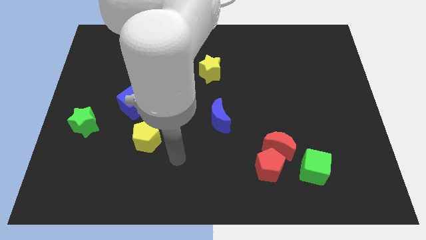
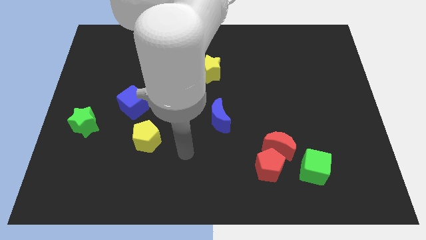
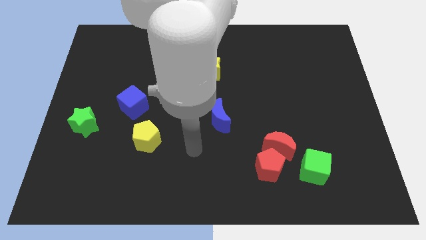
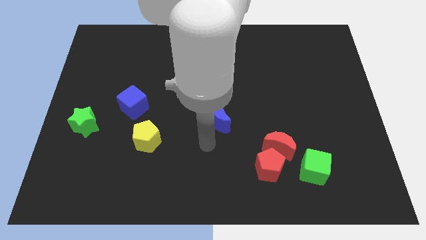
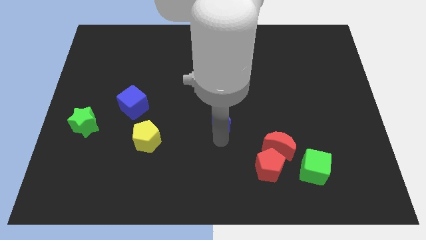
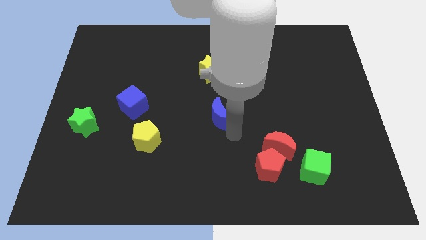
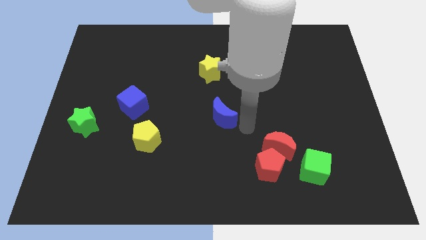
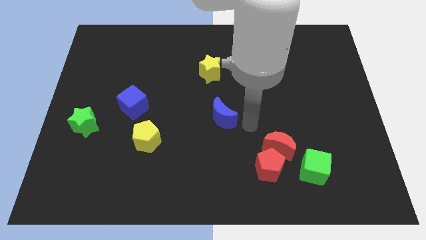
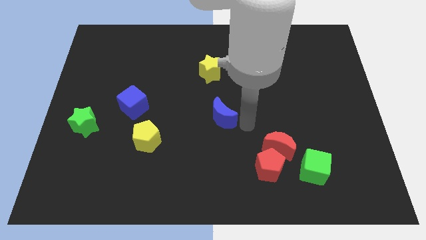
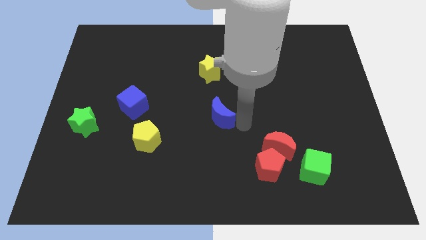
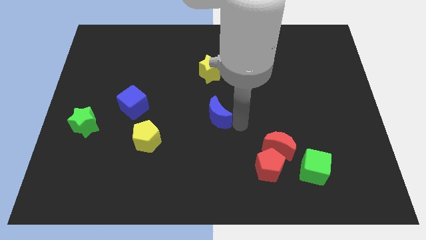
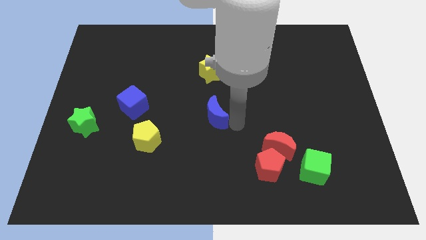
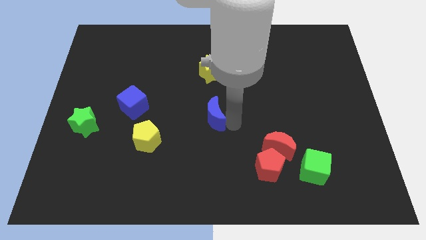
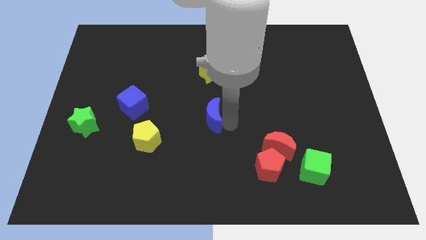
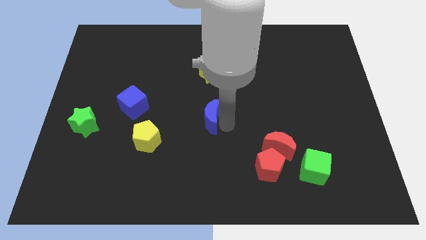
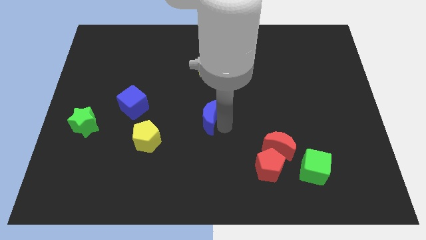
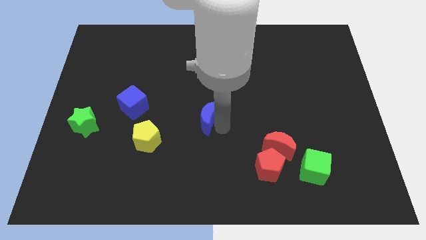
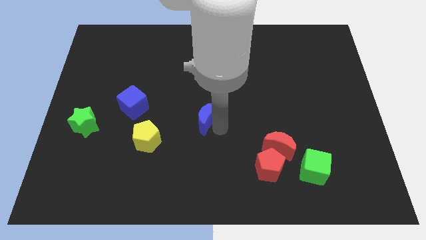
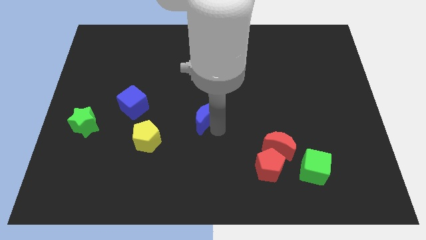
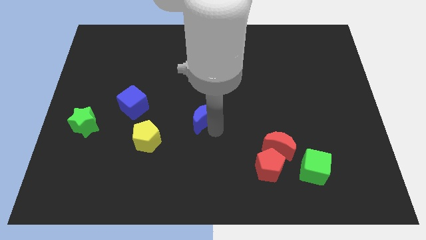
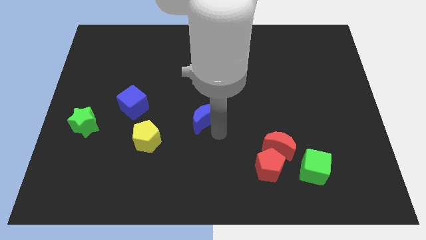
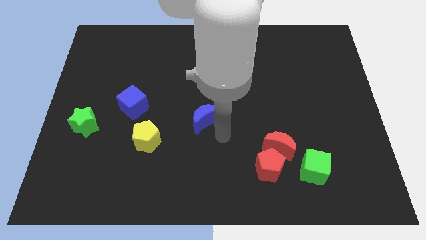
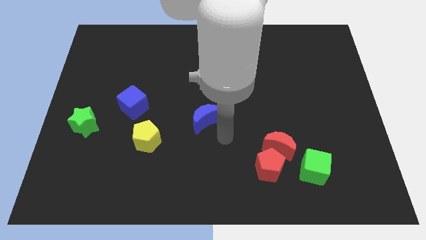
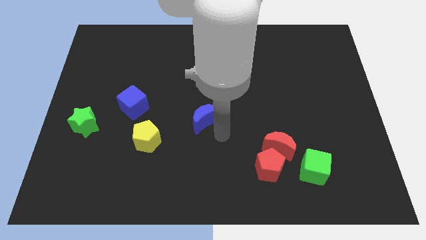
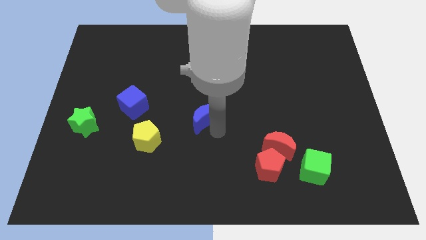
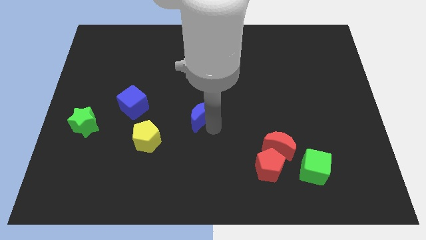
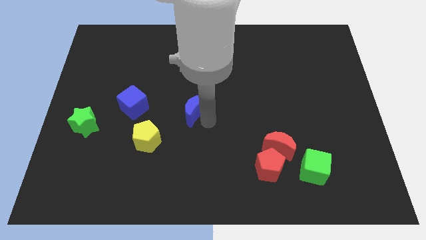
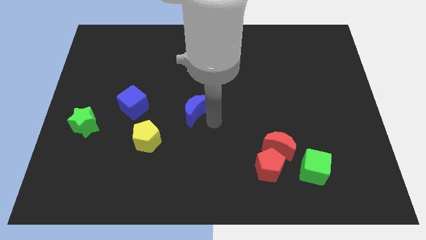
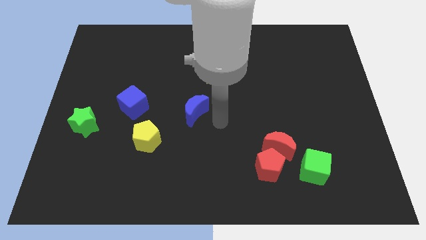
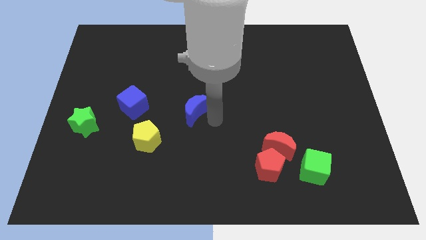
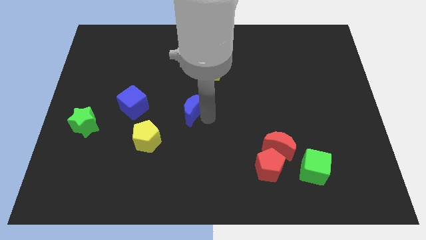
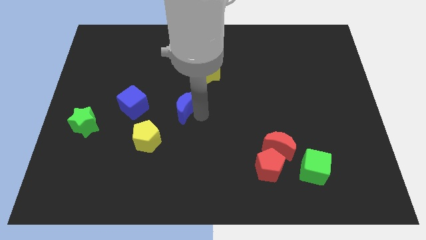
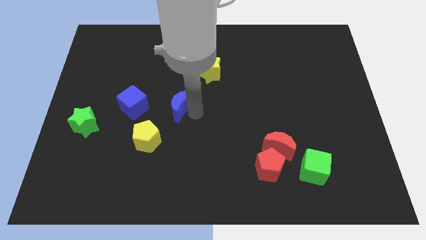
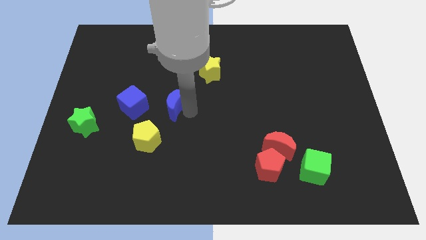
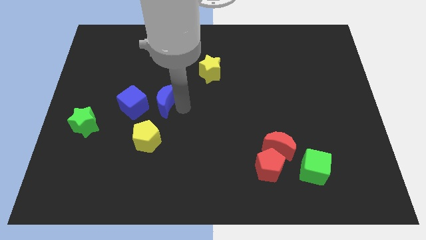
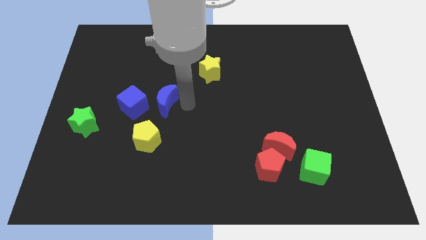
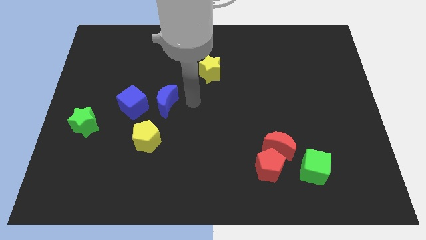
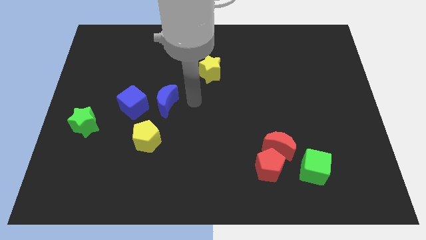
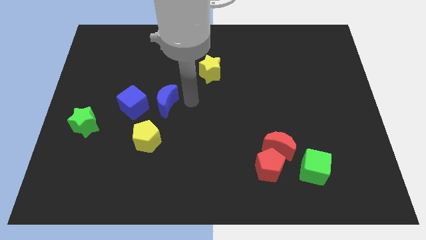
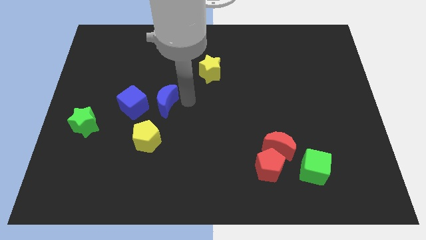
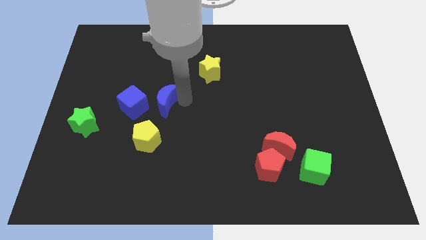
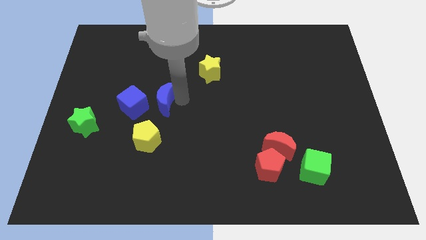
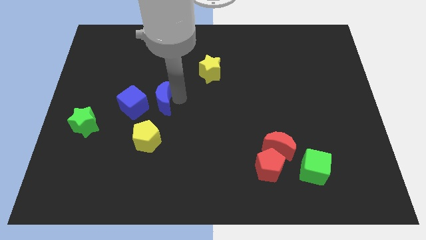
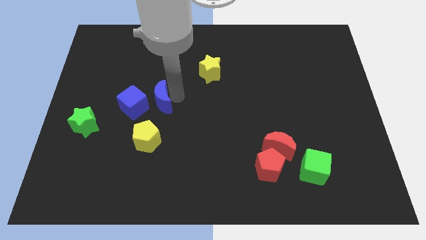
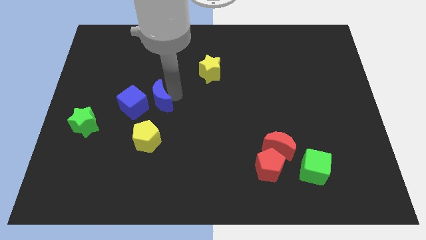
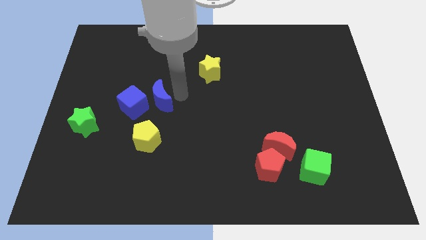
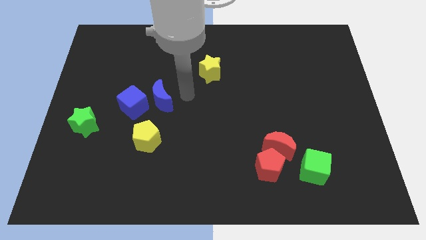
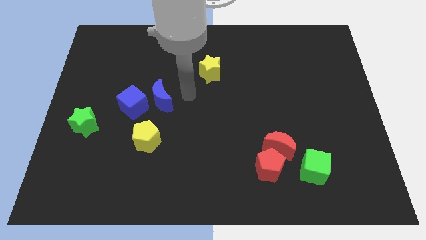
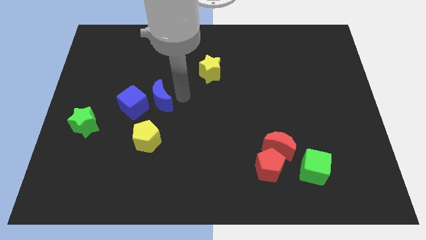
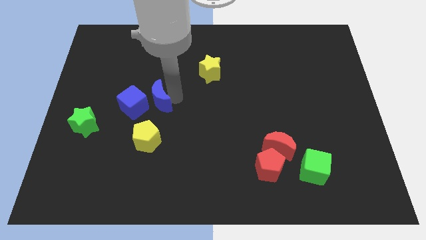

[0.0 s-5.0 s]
push the blue moon close to the blue cube

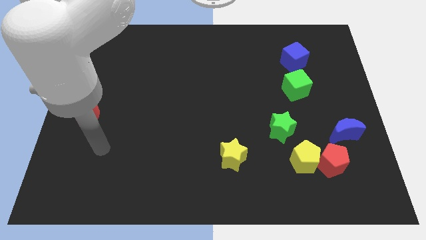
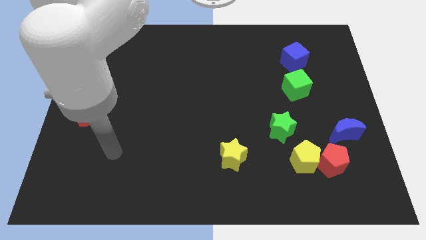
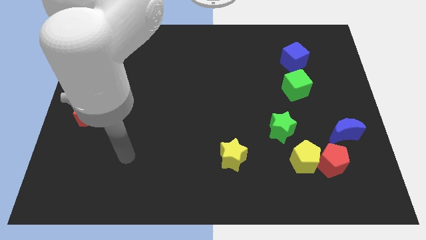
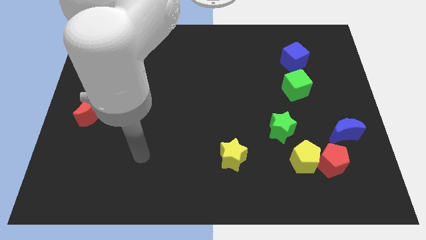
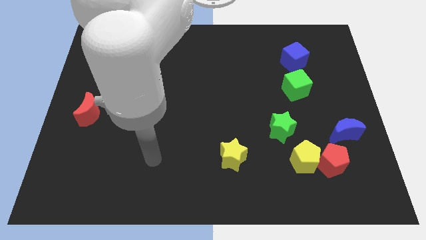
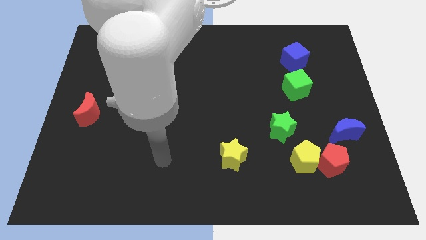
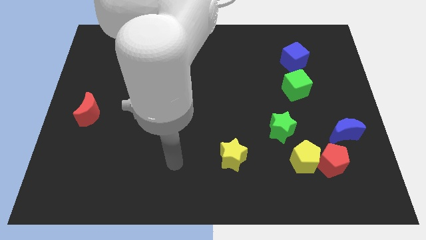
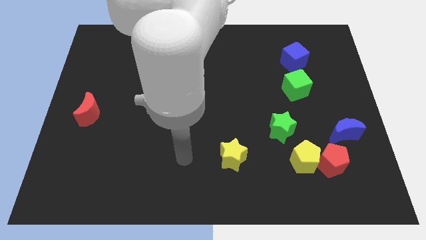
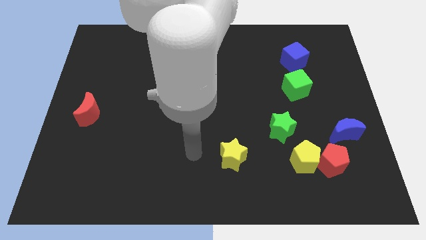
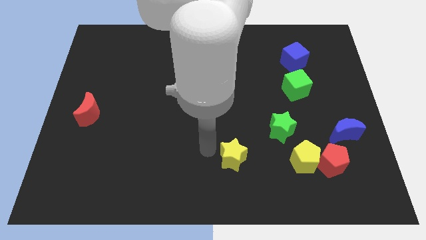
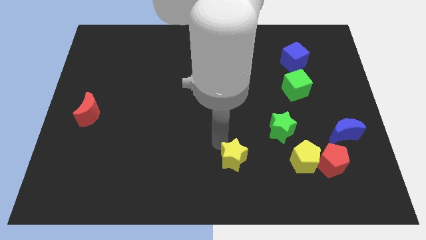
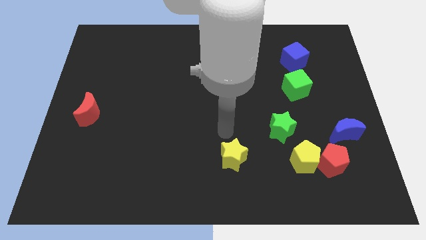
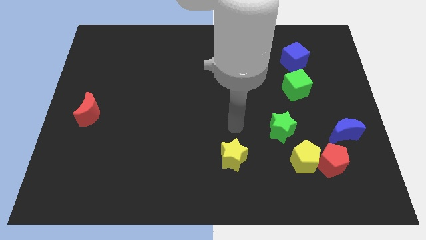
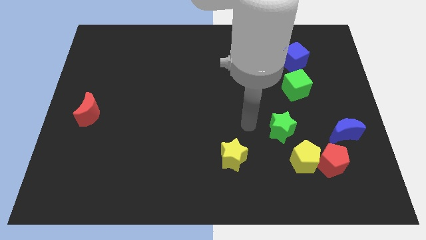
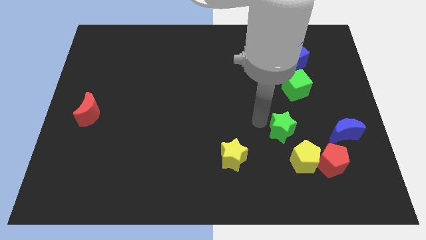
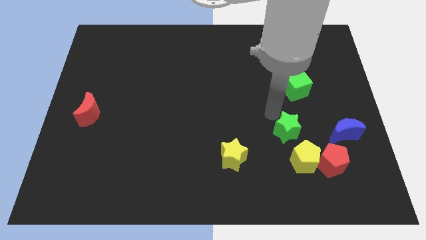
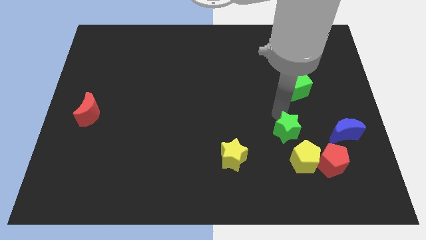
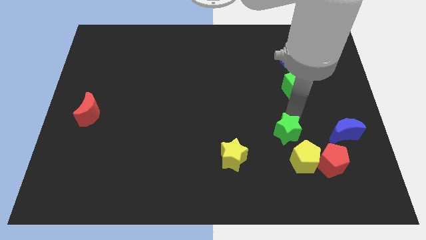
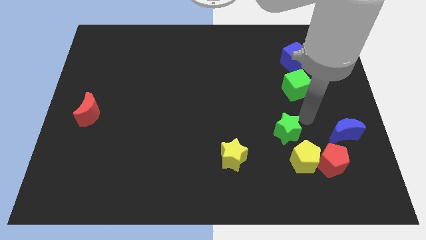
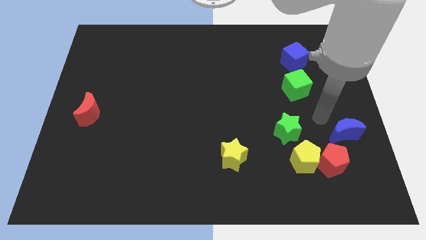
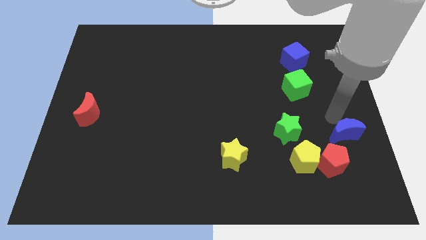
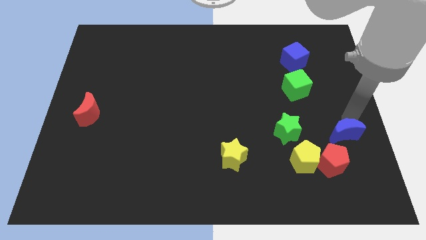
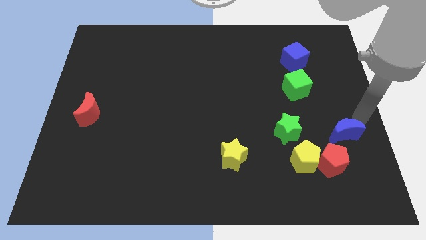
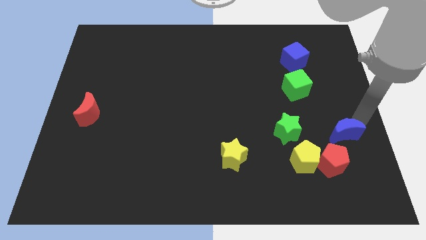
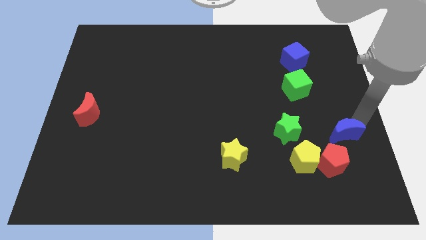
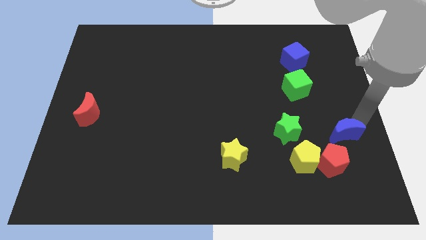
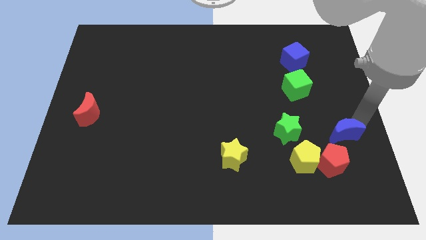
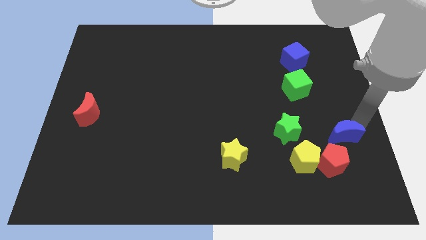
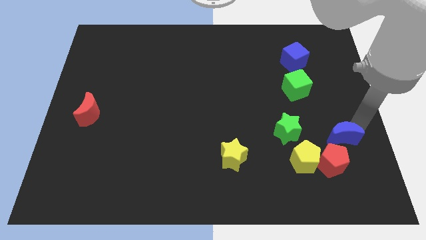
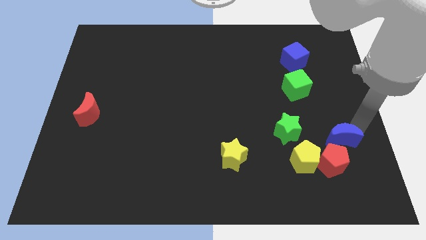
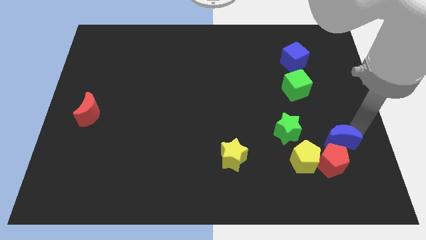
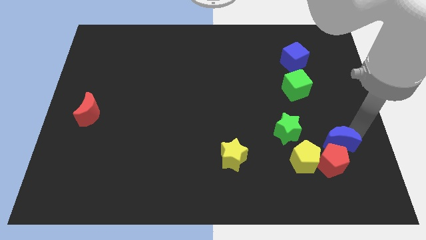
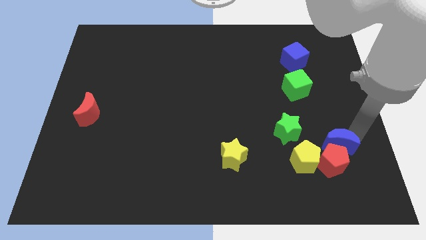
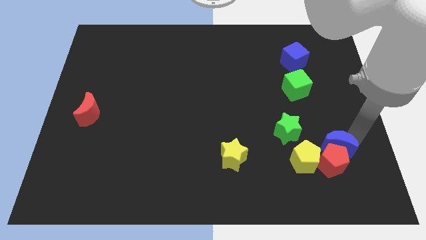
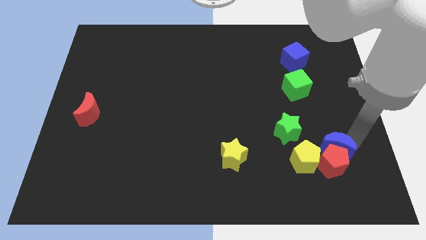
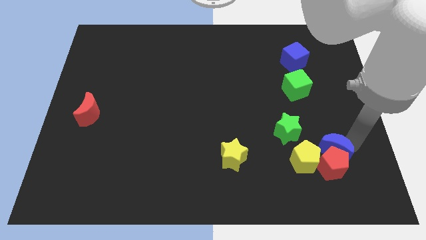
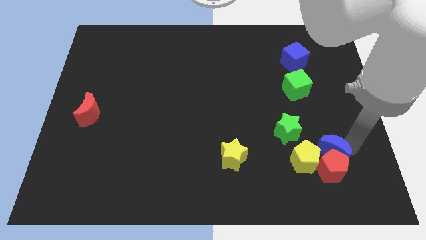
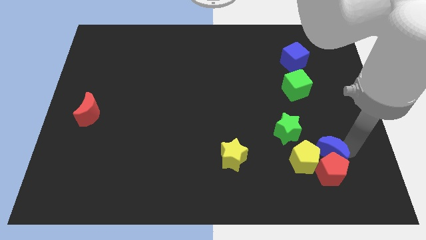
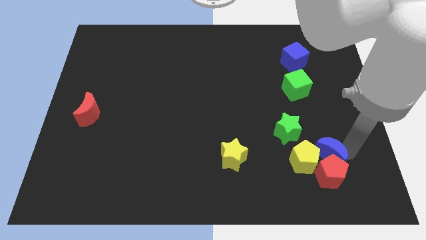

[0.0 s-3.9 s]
put the blue moon to the yellow pentagon
